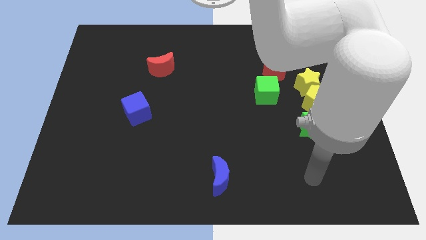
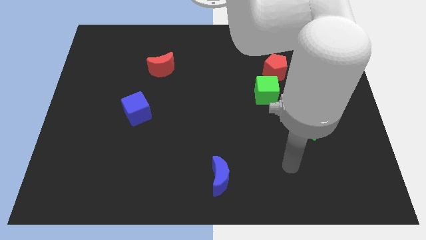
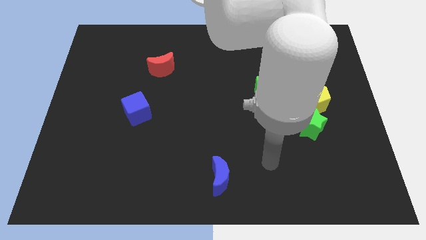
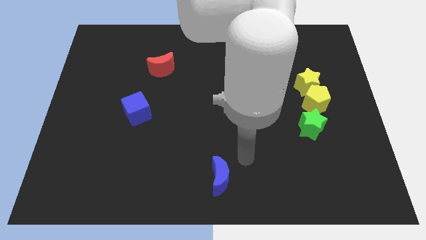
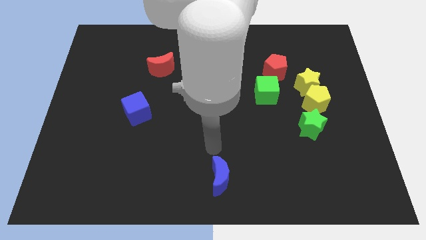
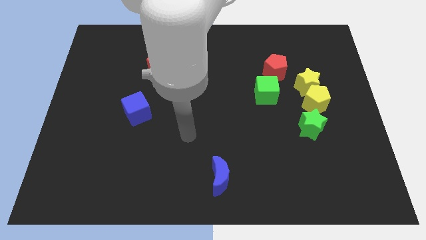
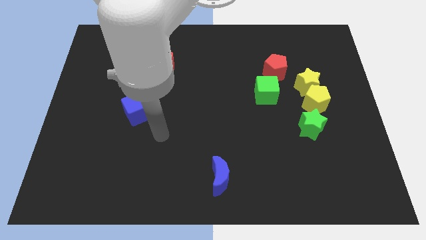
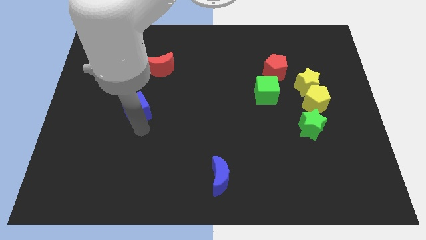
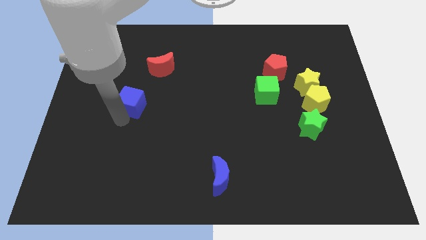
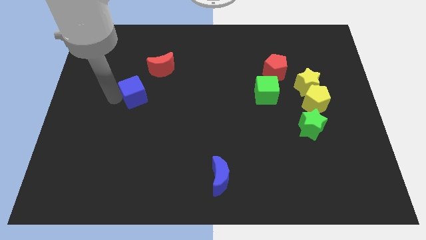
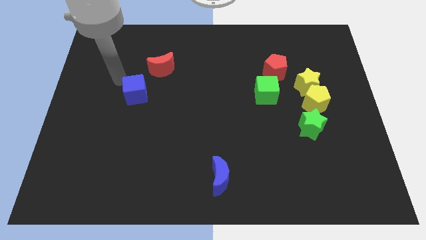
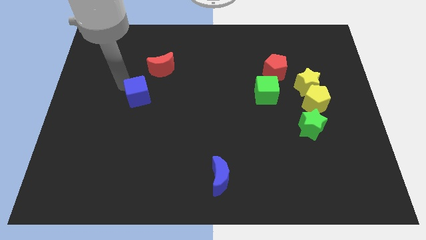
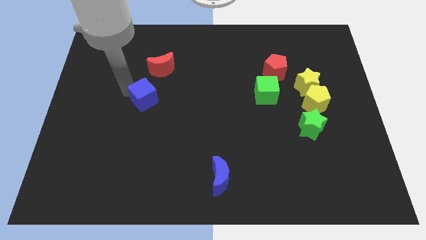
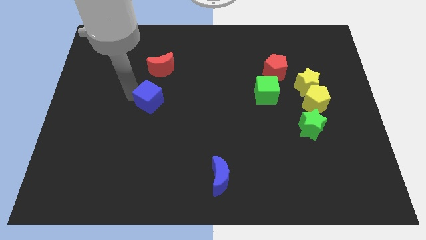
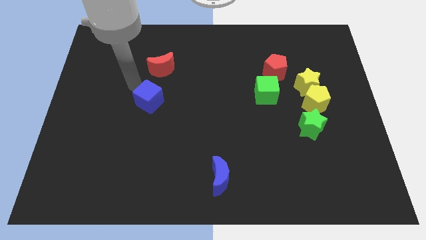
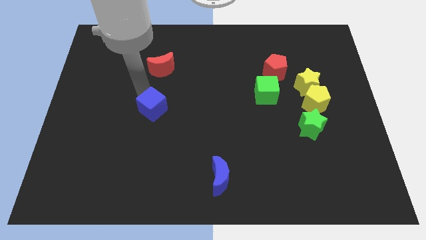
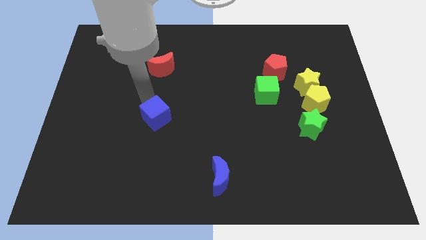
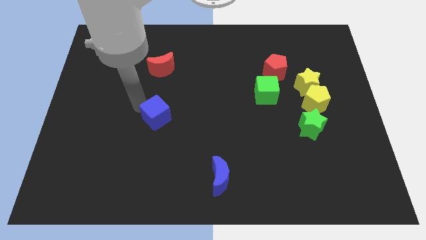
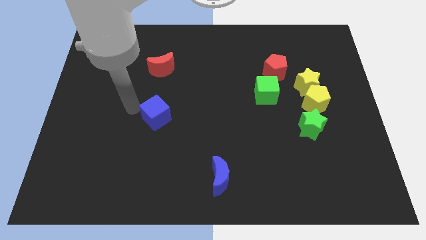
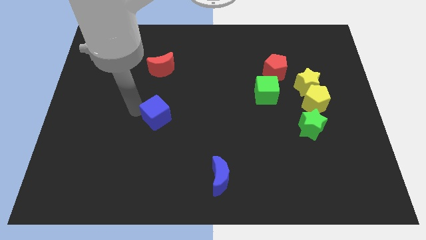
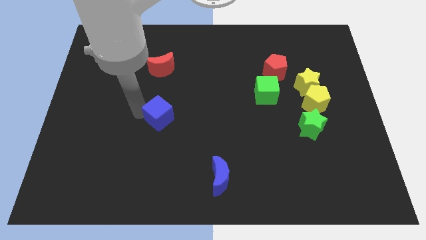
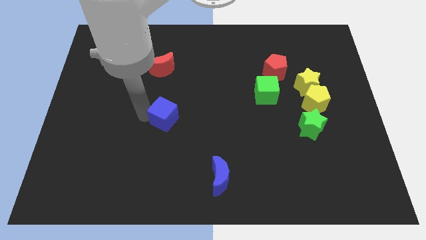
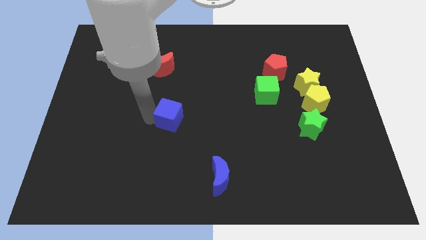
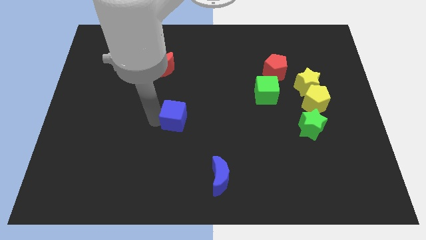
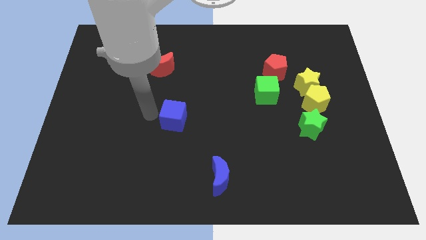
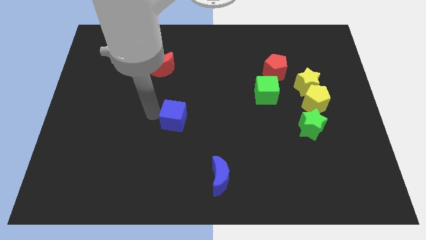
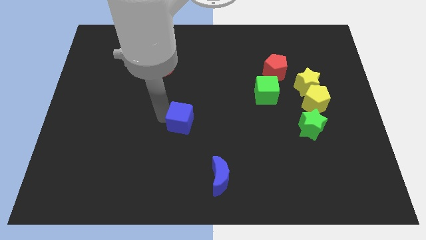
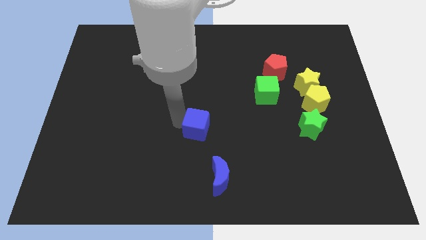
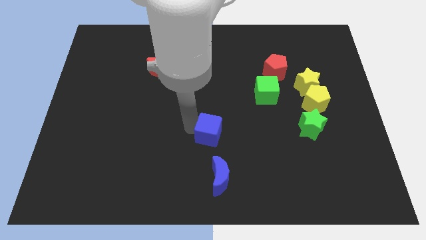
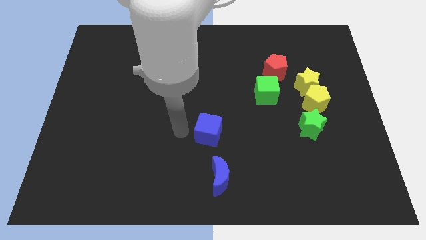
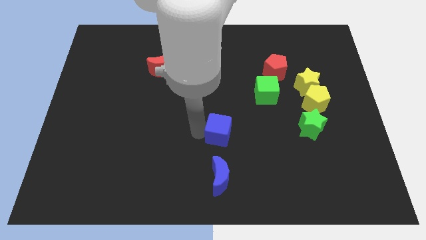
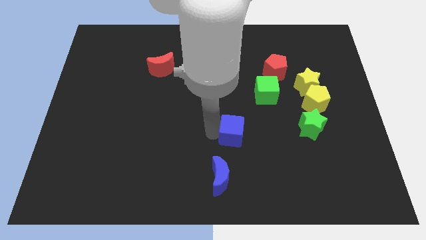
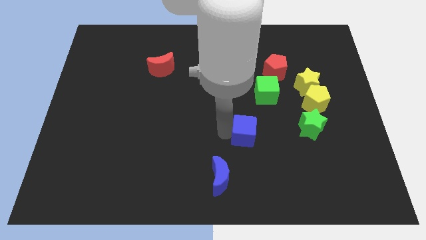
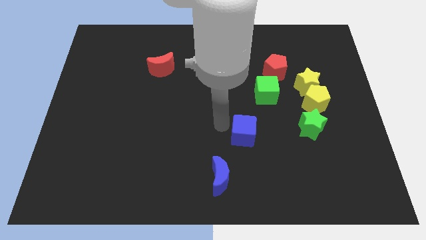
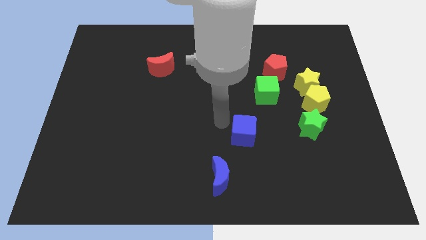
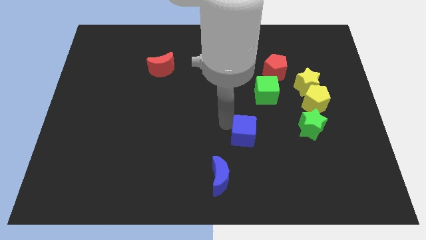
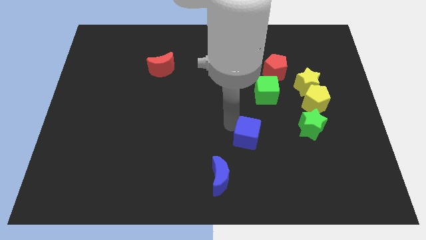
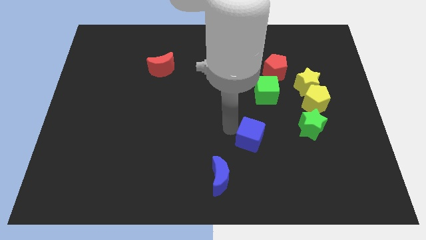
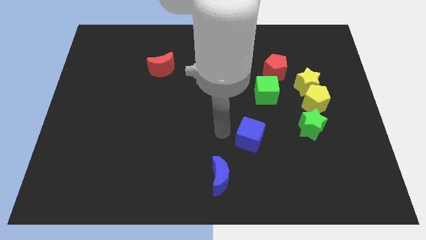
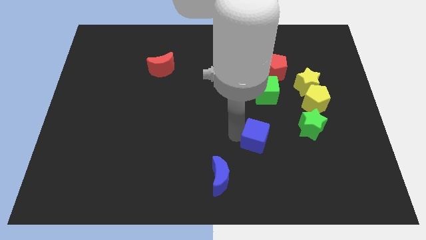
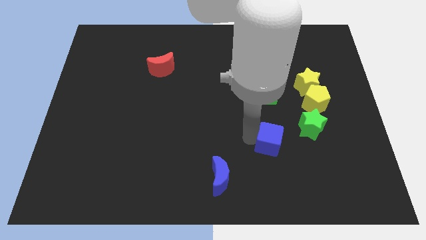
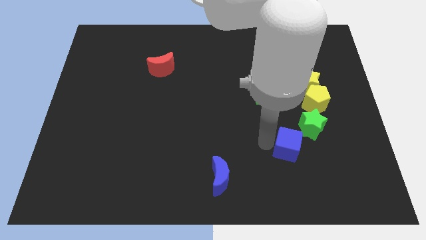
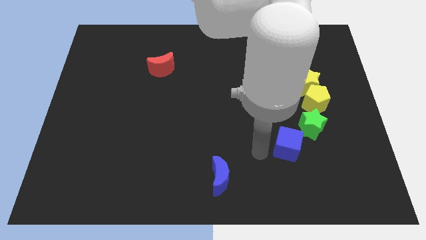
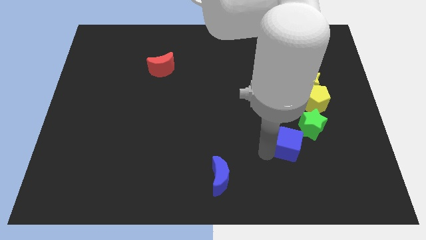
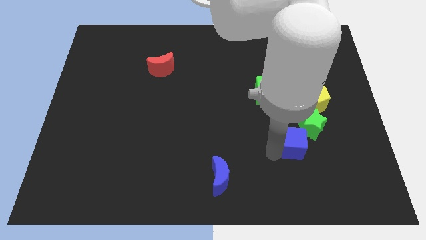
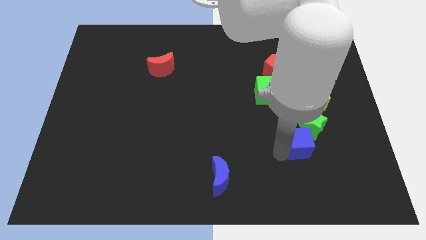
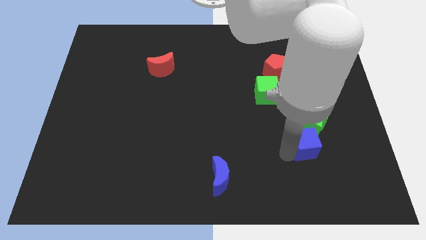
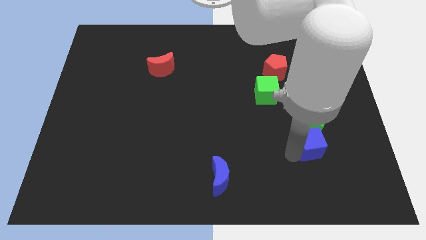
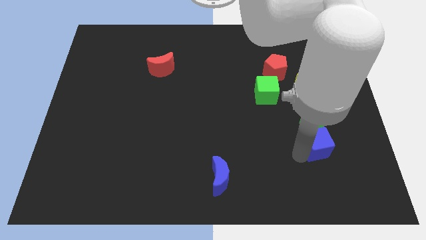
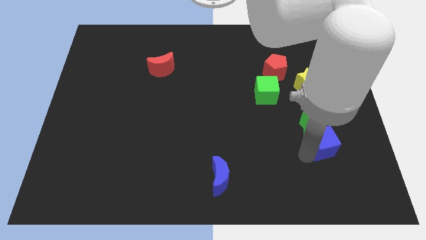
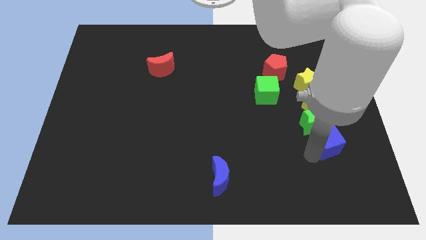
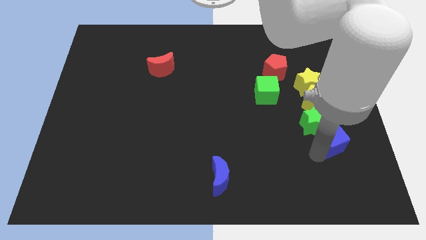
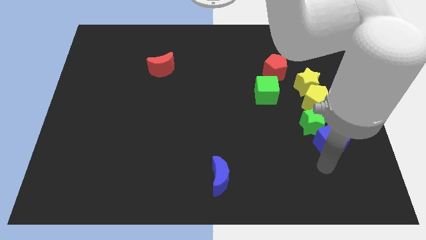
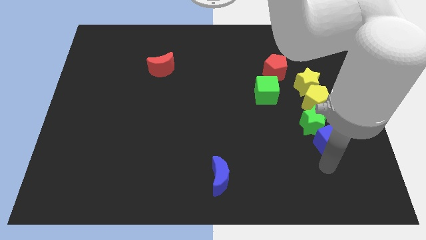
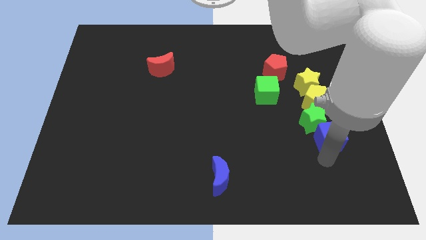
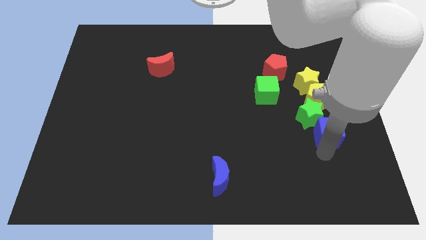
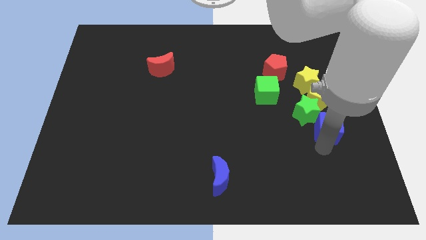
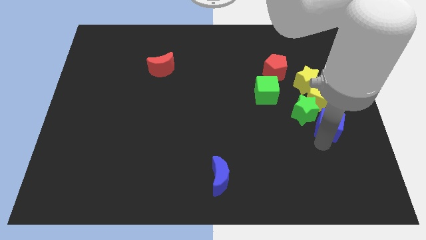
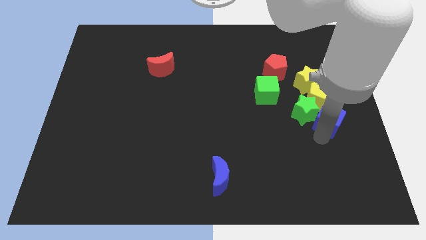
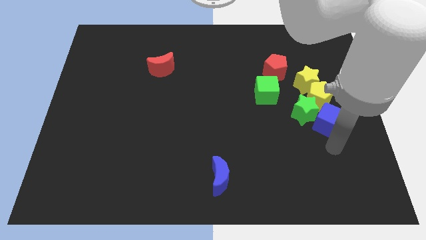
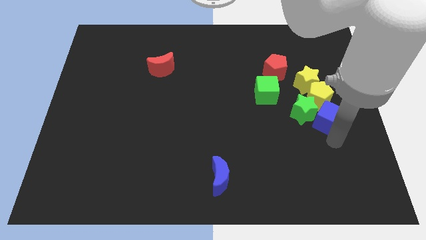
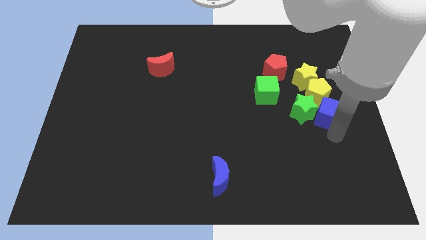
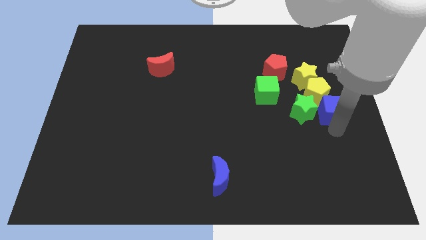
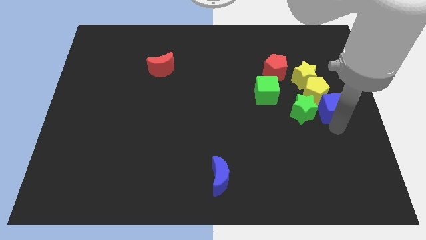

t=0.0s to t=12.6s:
move the blue cube to the top right of the green star
